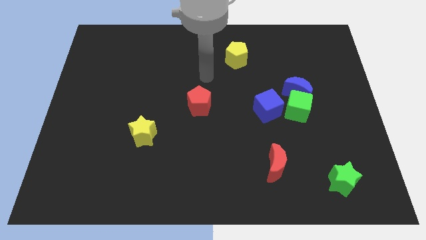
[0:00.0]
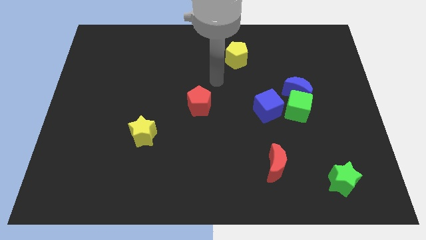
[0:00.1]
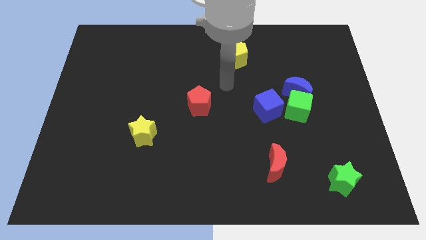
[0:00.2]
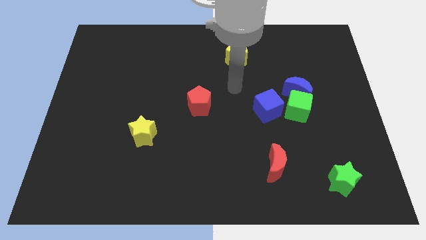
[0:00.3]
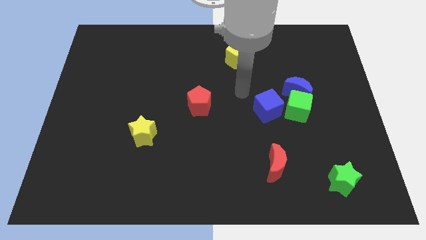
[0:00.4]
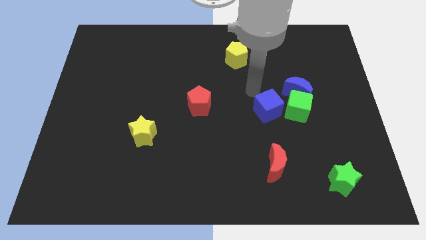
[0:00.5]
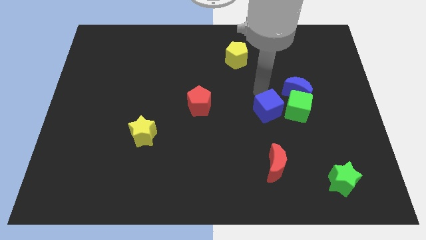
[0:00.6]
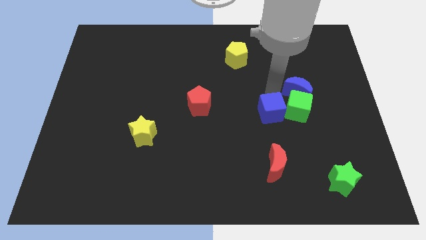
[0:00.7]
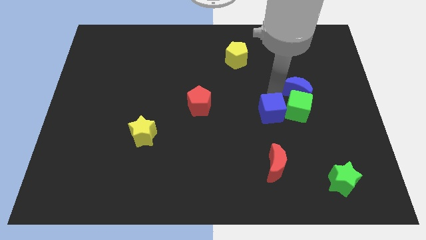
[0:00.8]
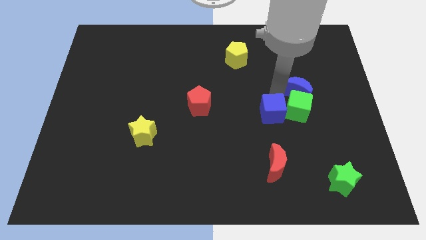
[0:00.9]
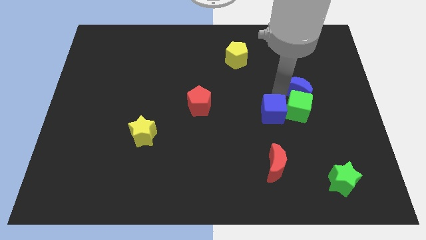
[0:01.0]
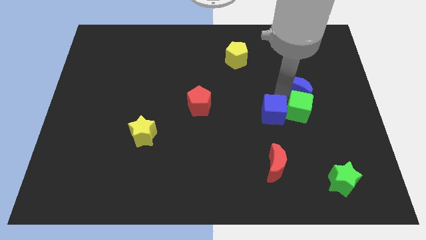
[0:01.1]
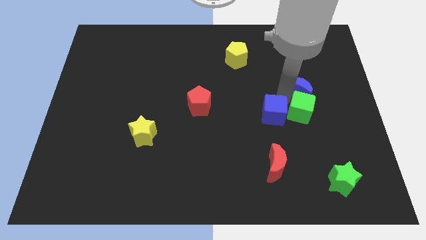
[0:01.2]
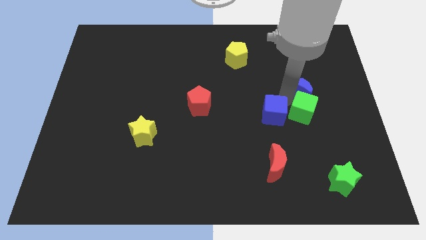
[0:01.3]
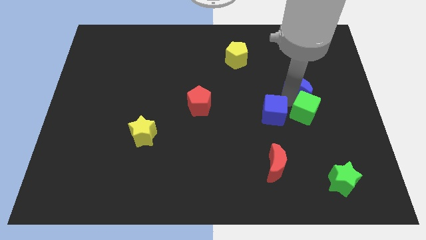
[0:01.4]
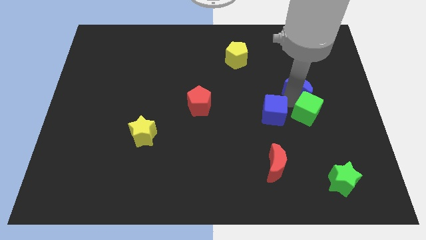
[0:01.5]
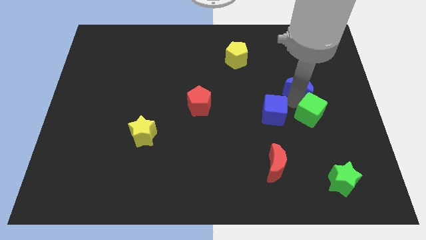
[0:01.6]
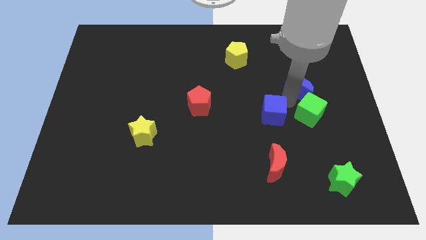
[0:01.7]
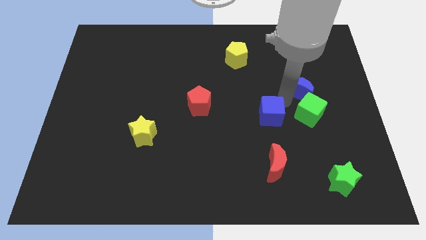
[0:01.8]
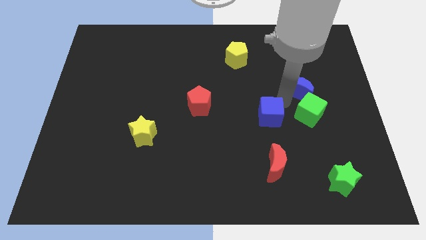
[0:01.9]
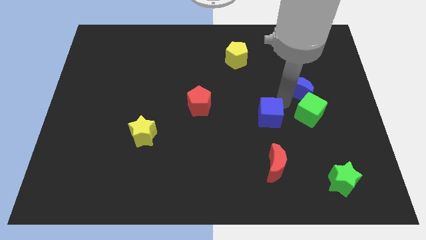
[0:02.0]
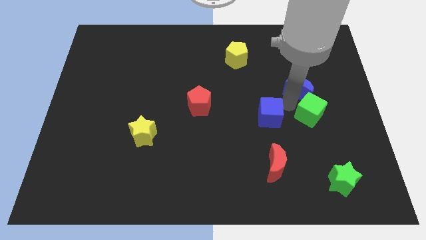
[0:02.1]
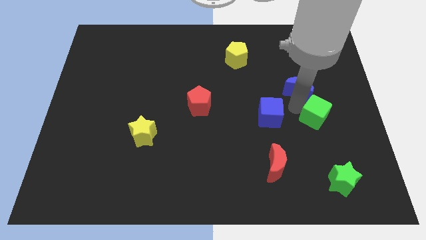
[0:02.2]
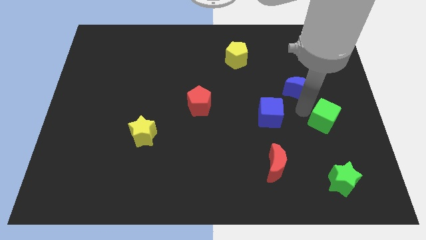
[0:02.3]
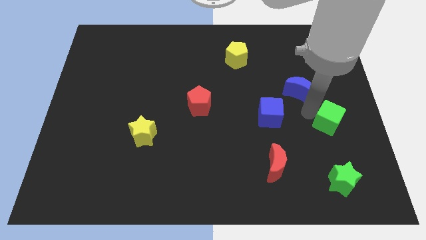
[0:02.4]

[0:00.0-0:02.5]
separate the green cube from the blue moon and blue cube

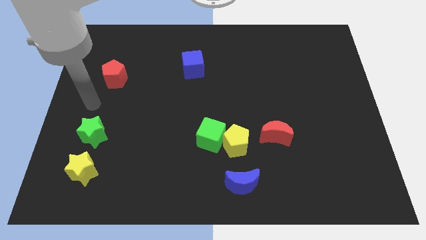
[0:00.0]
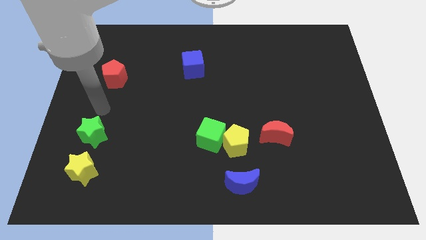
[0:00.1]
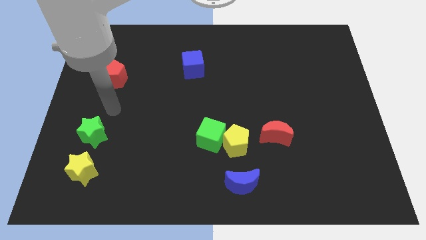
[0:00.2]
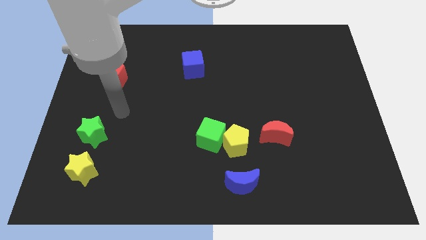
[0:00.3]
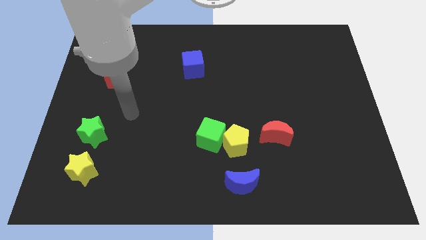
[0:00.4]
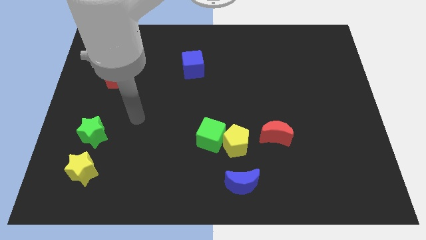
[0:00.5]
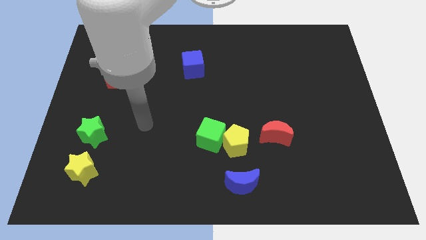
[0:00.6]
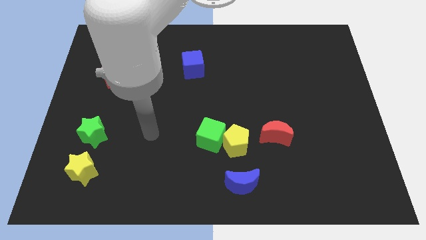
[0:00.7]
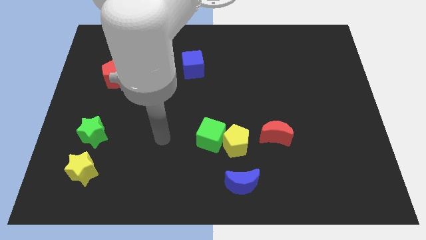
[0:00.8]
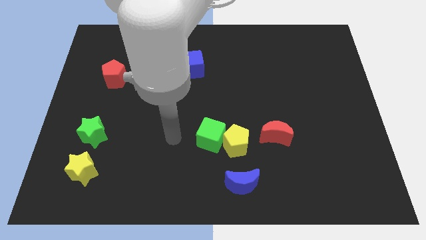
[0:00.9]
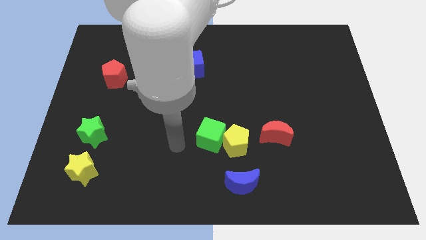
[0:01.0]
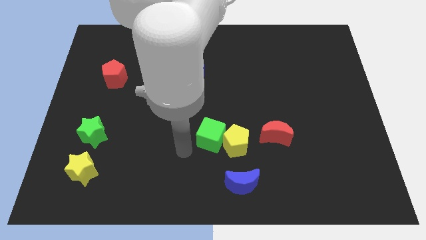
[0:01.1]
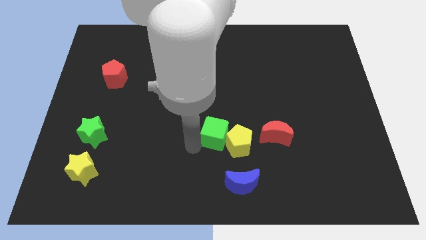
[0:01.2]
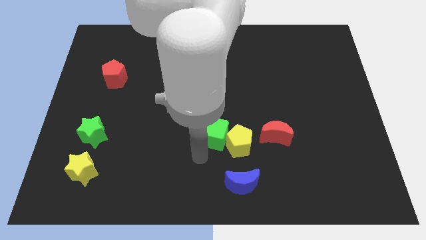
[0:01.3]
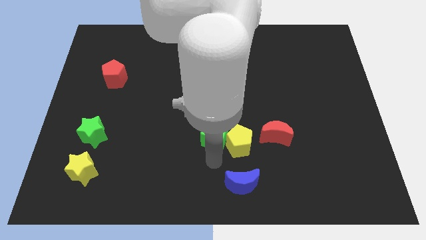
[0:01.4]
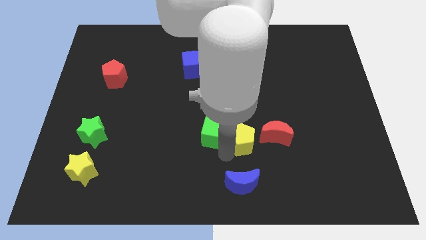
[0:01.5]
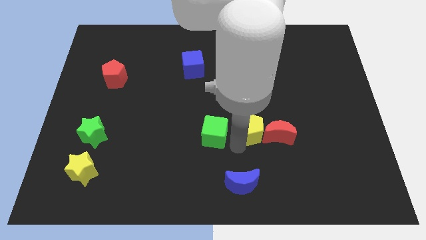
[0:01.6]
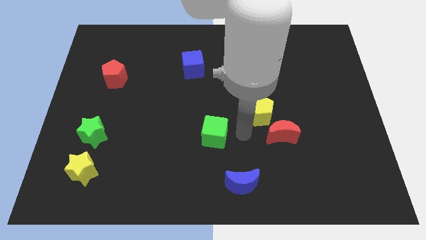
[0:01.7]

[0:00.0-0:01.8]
separate the green cube from the yellow pentagon

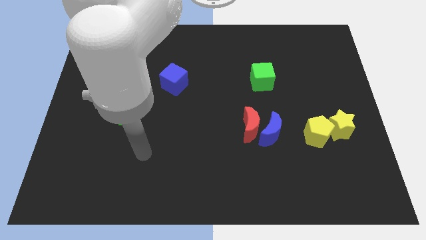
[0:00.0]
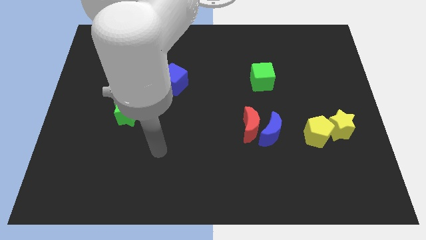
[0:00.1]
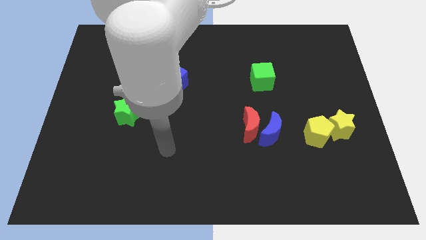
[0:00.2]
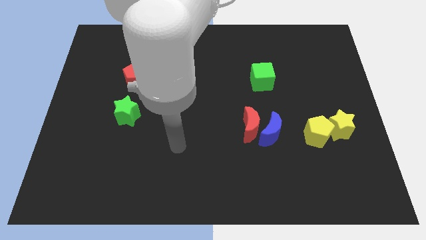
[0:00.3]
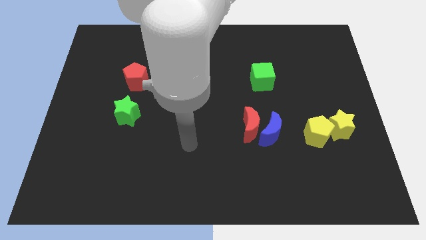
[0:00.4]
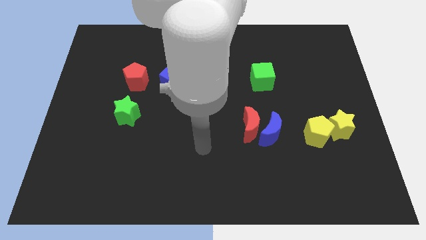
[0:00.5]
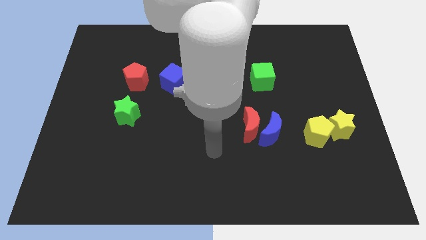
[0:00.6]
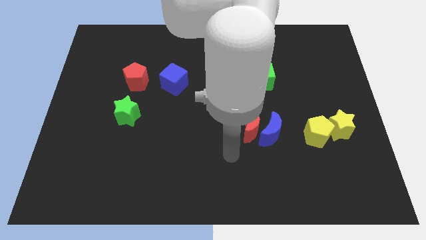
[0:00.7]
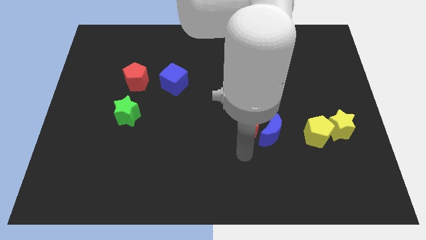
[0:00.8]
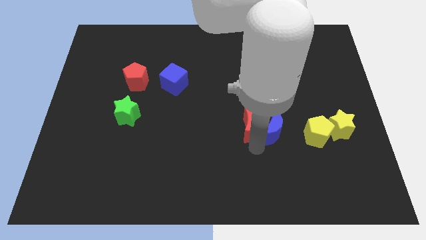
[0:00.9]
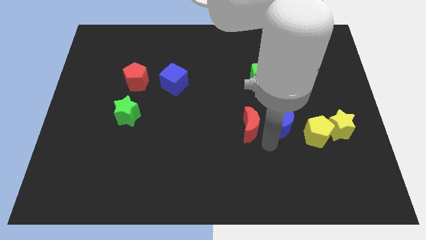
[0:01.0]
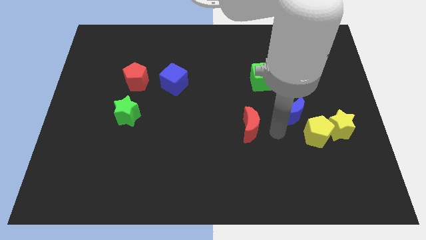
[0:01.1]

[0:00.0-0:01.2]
move the red moon away from the blue moon

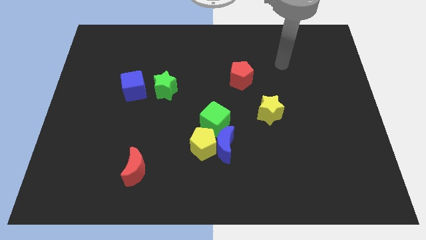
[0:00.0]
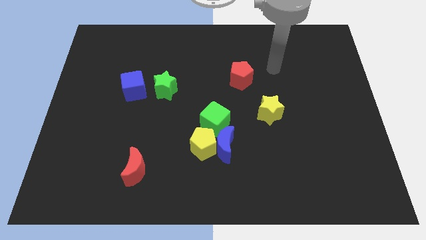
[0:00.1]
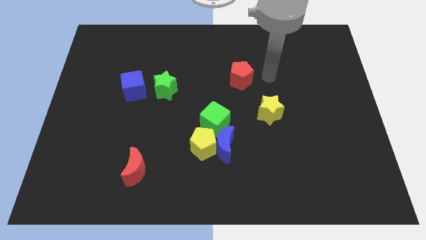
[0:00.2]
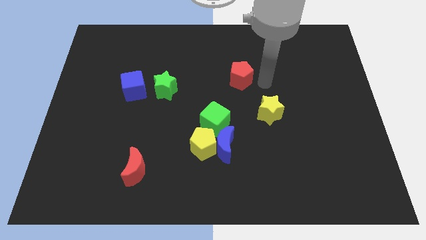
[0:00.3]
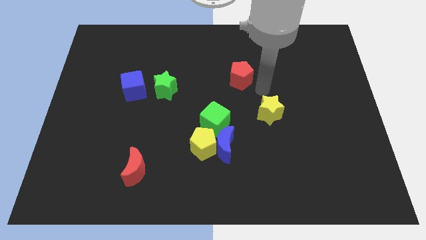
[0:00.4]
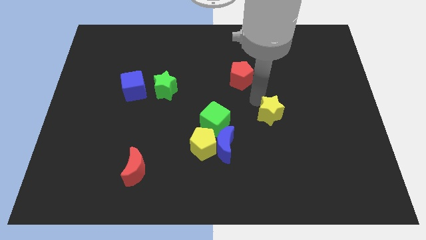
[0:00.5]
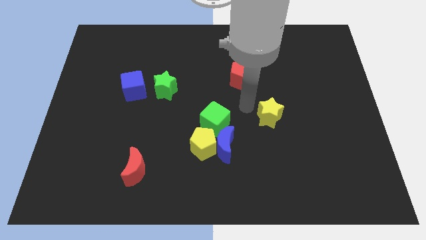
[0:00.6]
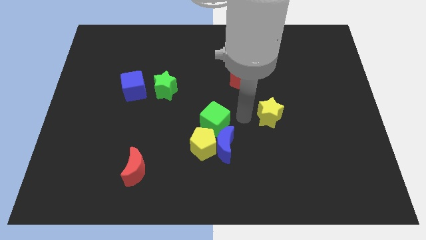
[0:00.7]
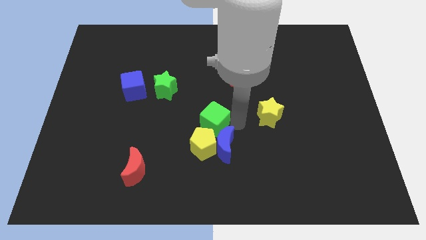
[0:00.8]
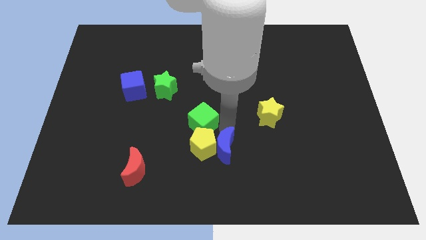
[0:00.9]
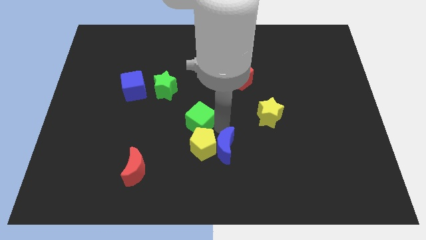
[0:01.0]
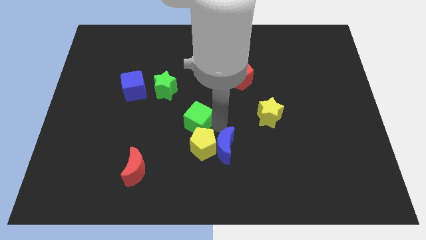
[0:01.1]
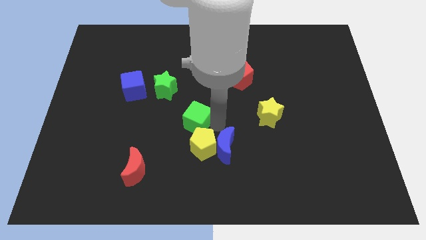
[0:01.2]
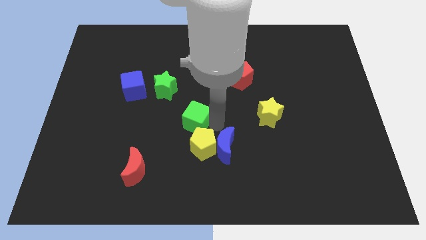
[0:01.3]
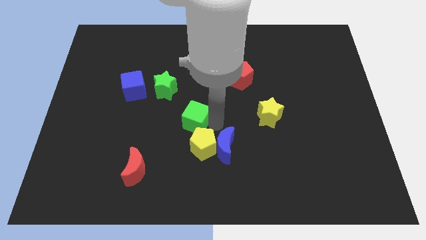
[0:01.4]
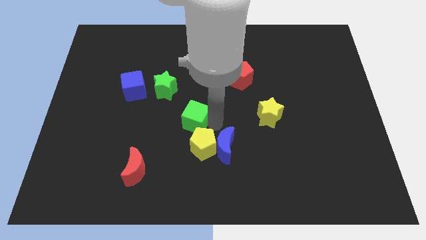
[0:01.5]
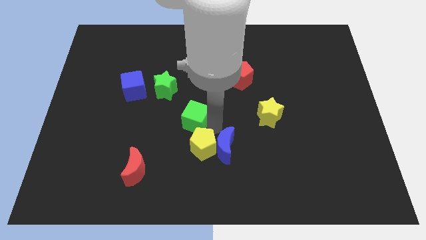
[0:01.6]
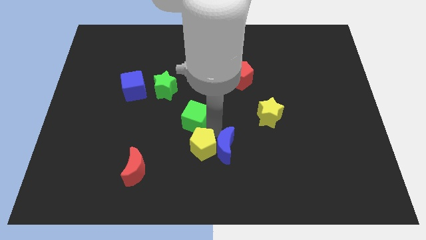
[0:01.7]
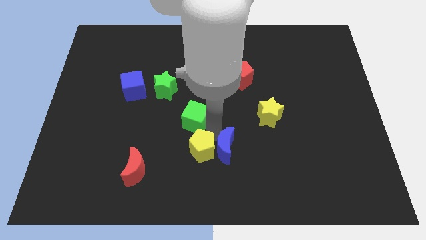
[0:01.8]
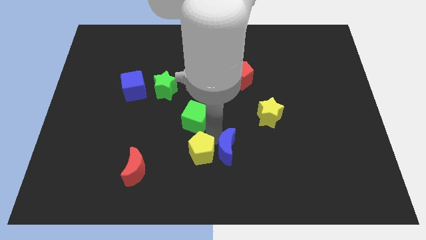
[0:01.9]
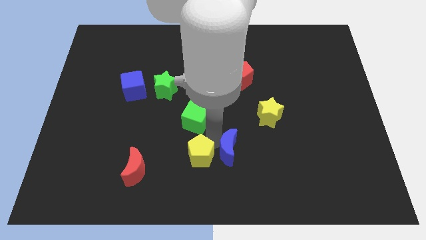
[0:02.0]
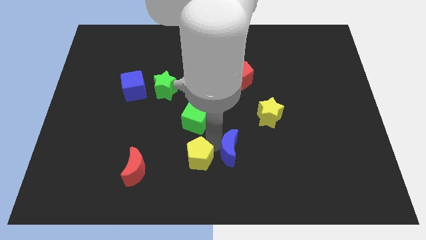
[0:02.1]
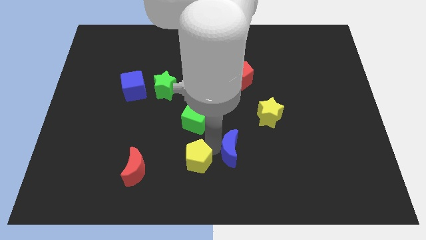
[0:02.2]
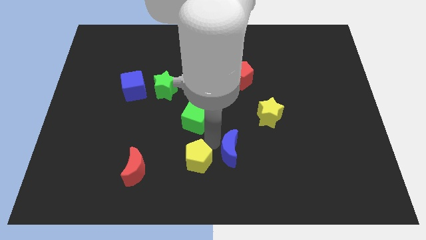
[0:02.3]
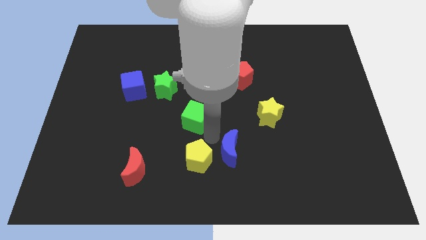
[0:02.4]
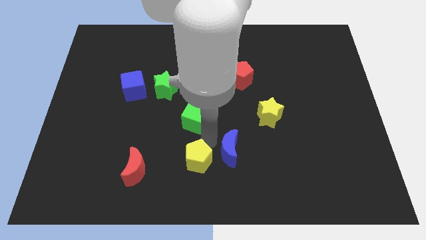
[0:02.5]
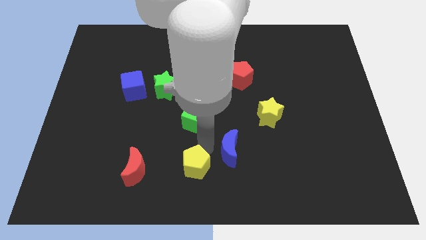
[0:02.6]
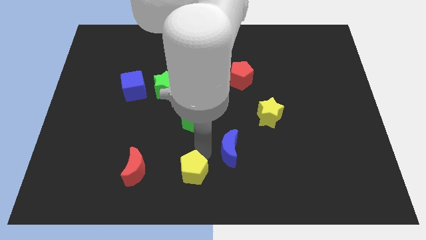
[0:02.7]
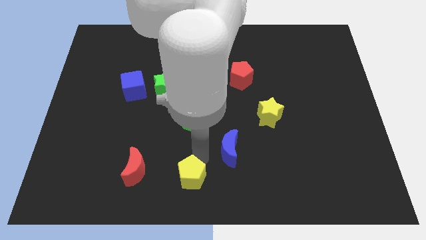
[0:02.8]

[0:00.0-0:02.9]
move the yellow pentagon away from the blue moon and green cube

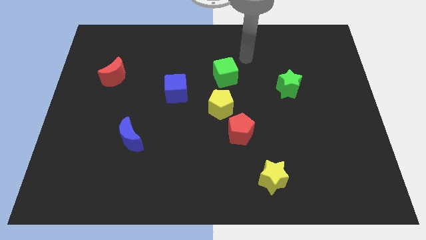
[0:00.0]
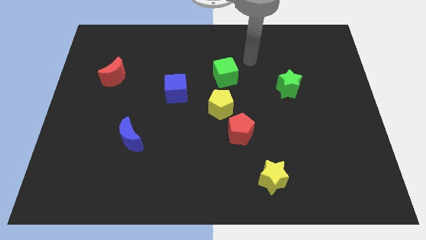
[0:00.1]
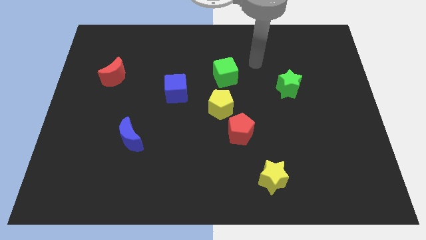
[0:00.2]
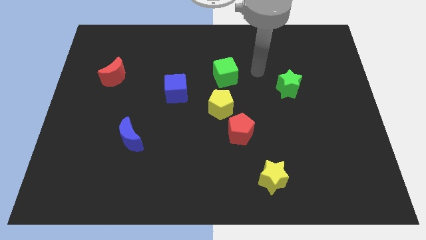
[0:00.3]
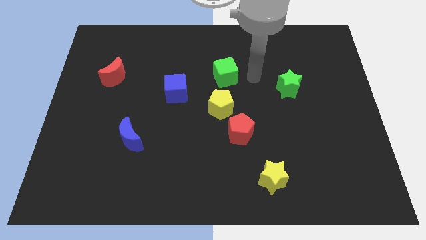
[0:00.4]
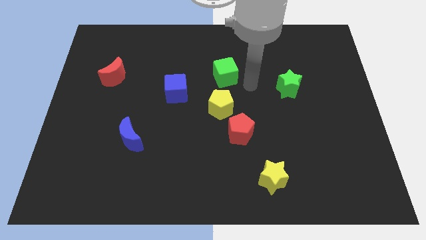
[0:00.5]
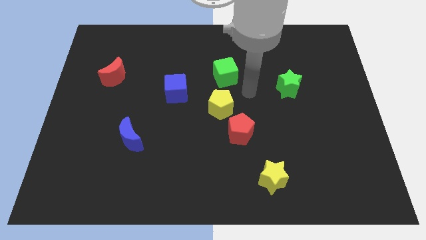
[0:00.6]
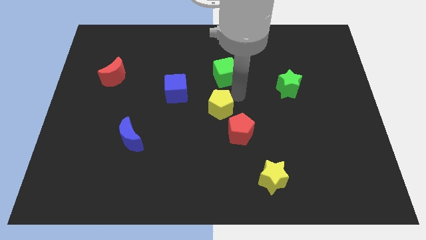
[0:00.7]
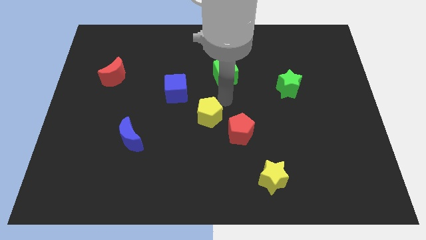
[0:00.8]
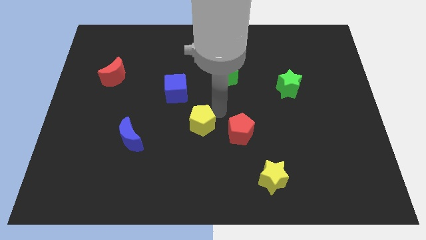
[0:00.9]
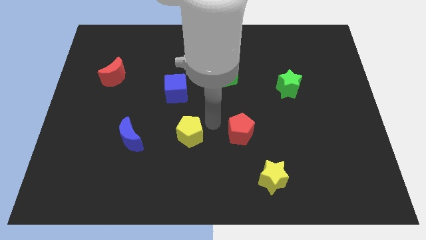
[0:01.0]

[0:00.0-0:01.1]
separate the red pentagon from the yellow pentagon
